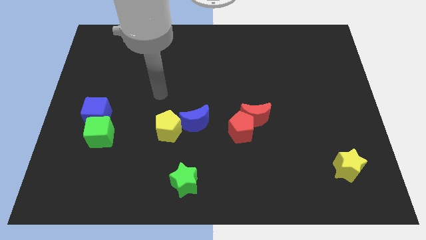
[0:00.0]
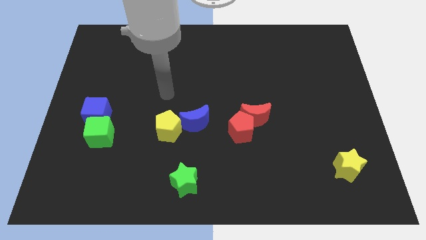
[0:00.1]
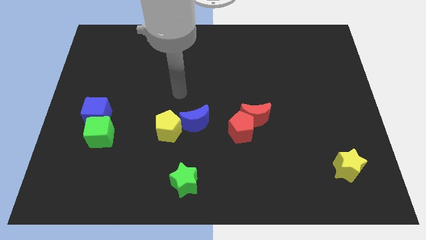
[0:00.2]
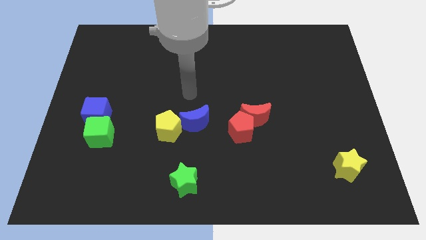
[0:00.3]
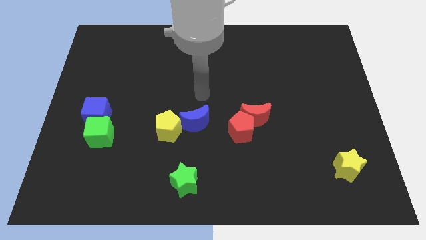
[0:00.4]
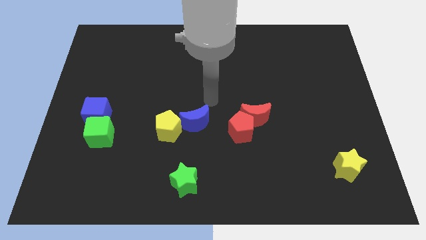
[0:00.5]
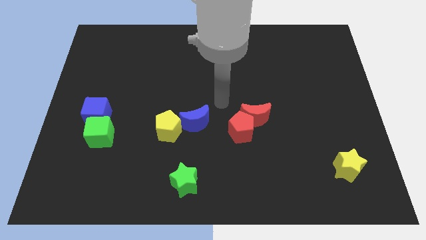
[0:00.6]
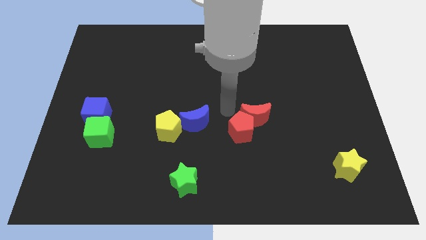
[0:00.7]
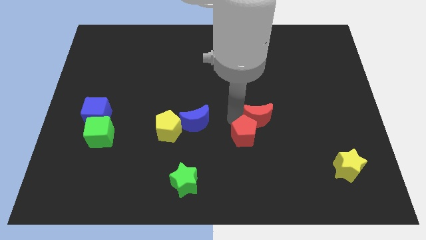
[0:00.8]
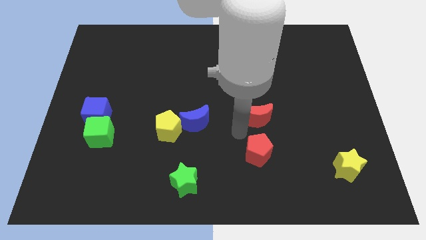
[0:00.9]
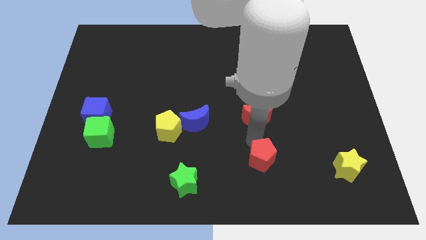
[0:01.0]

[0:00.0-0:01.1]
move the red moon away from the red pentagon

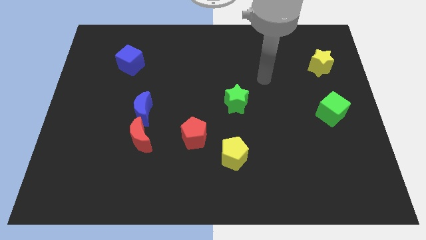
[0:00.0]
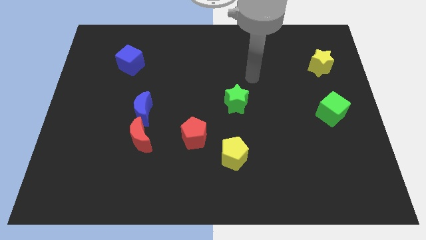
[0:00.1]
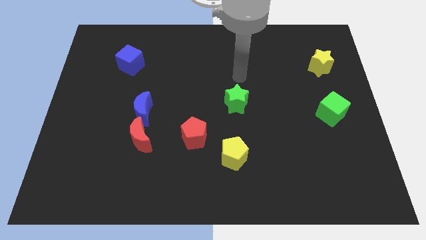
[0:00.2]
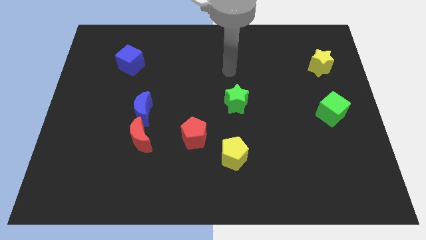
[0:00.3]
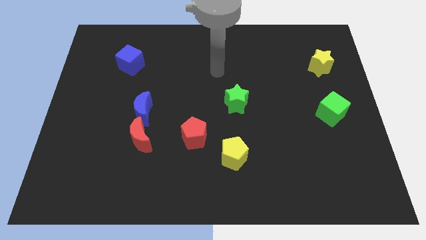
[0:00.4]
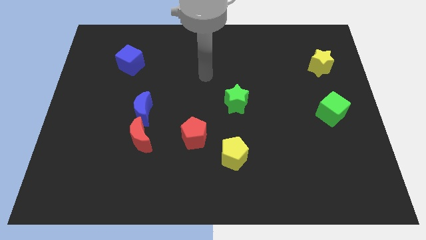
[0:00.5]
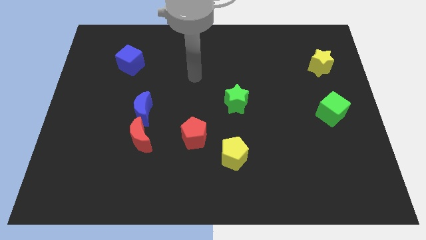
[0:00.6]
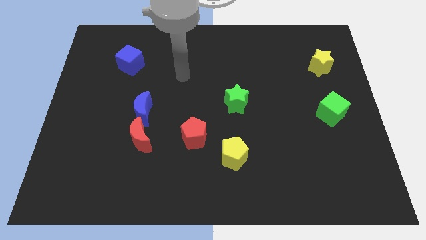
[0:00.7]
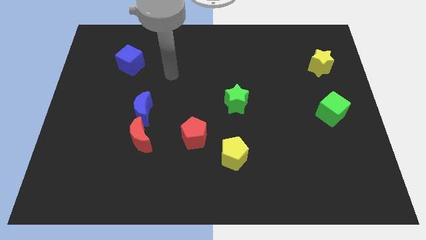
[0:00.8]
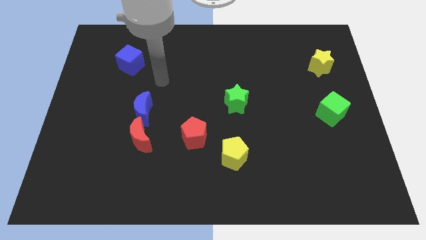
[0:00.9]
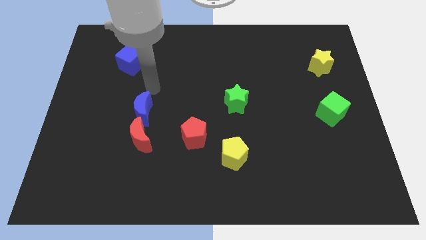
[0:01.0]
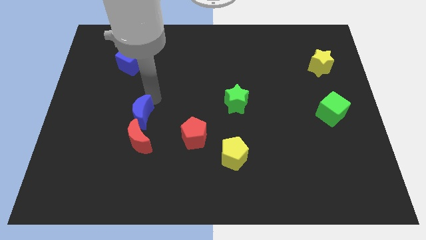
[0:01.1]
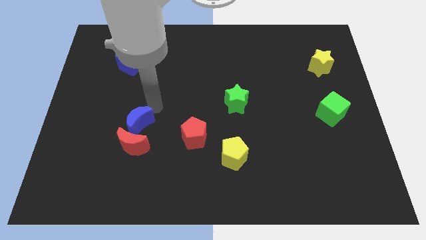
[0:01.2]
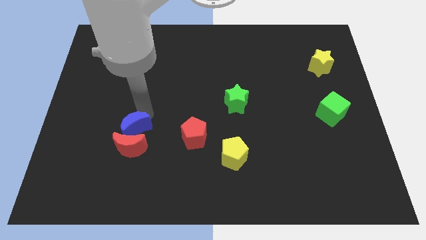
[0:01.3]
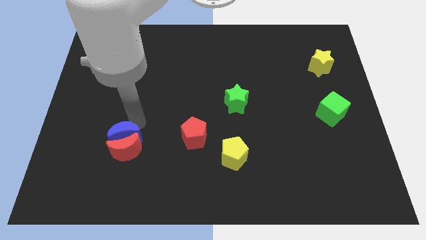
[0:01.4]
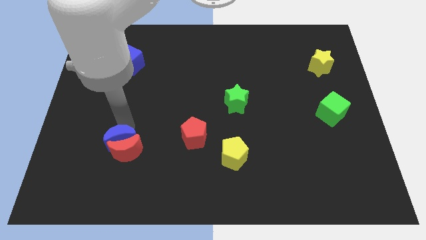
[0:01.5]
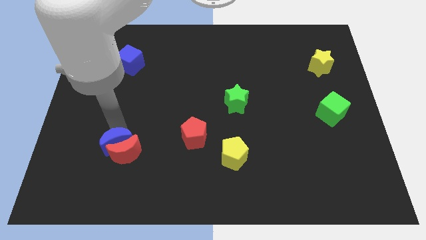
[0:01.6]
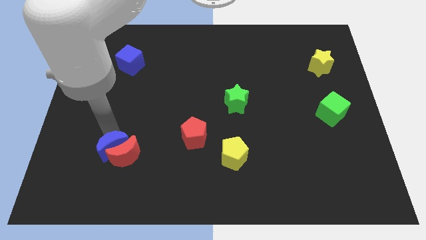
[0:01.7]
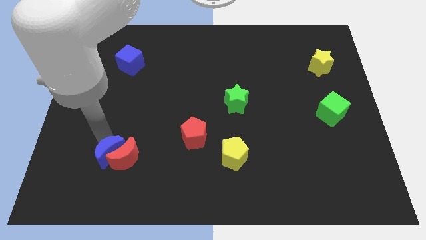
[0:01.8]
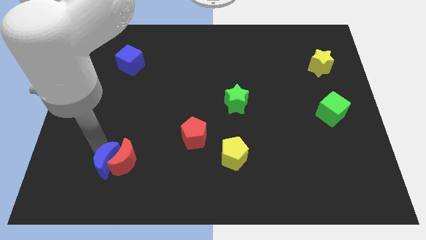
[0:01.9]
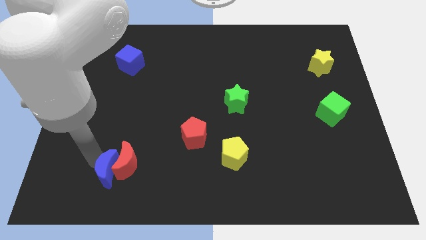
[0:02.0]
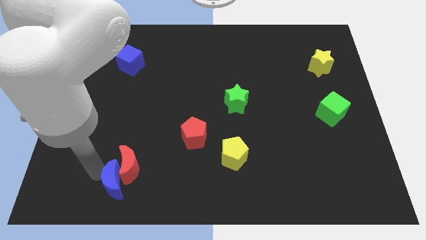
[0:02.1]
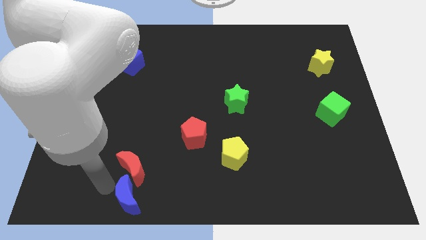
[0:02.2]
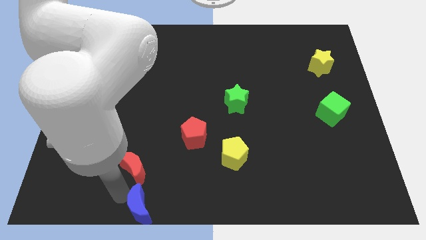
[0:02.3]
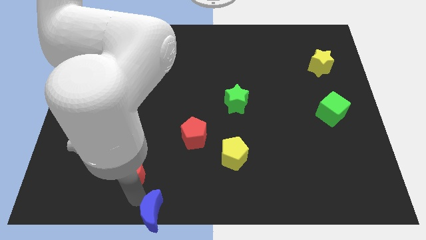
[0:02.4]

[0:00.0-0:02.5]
pull the red moon apart from the blue moon

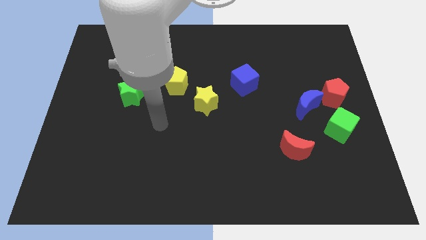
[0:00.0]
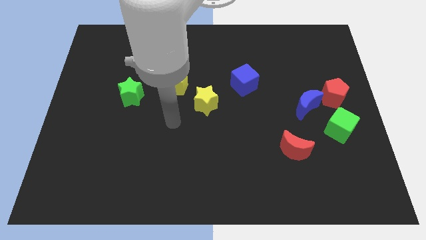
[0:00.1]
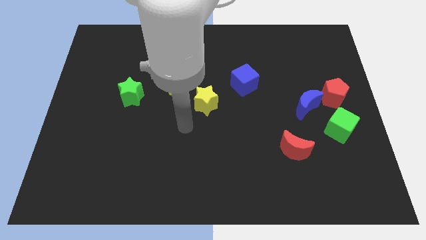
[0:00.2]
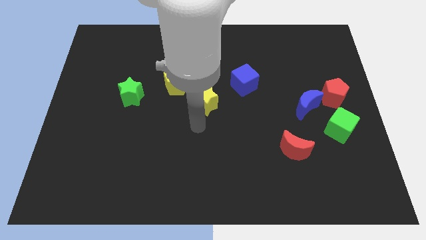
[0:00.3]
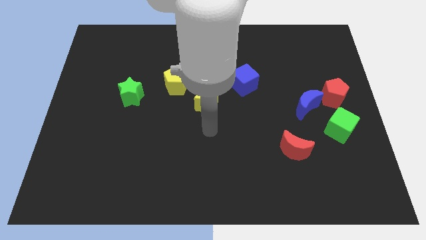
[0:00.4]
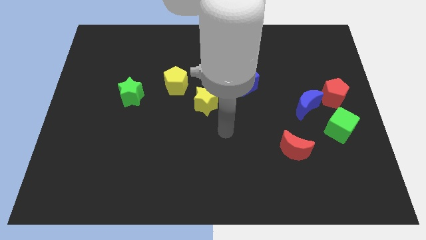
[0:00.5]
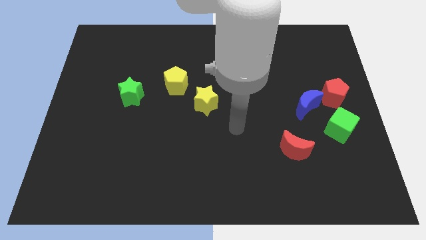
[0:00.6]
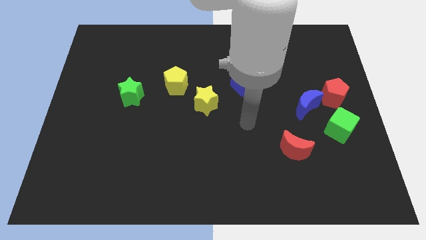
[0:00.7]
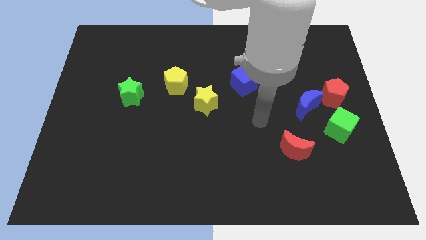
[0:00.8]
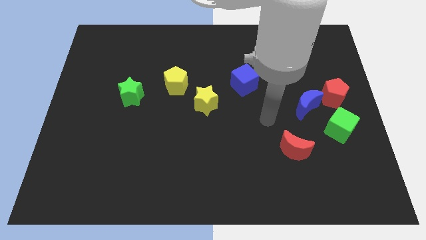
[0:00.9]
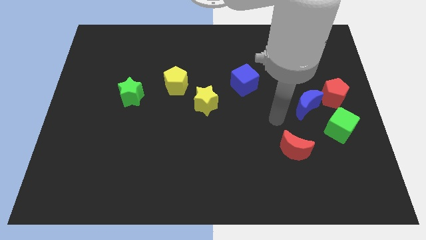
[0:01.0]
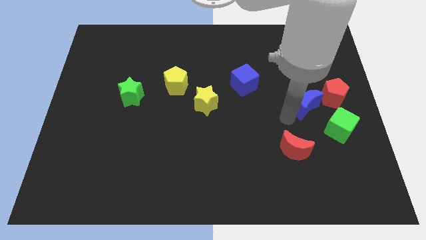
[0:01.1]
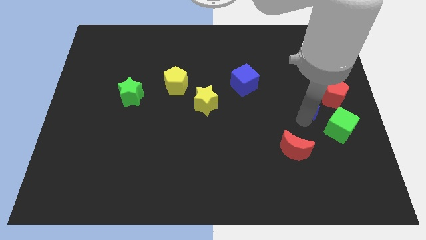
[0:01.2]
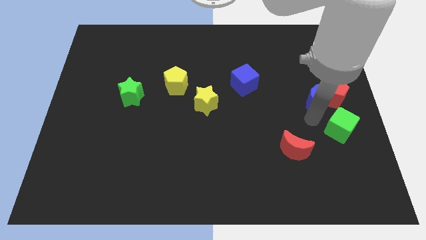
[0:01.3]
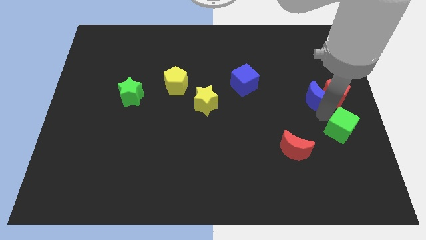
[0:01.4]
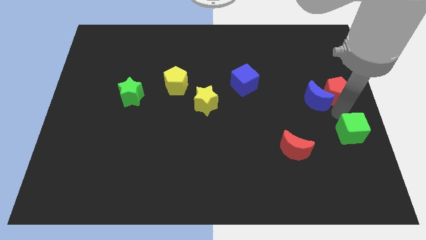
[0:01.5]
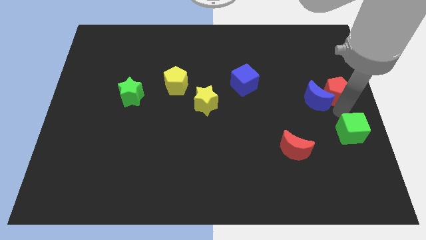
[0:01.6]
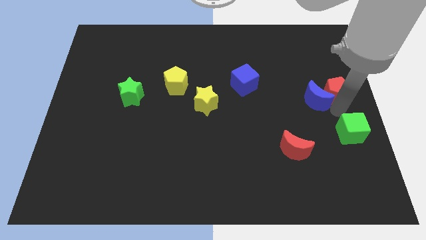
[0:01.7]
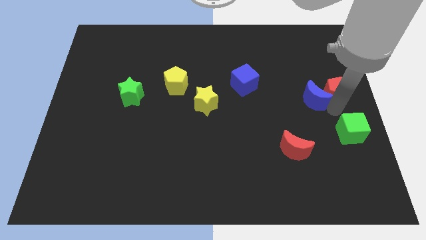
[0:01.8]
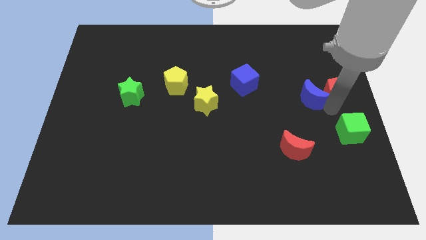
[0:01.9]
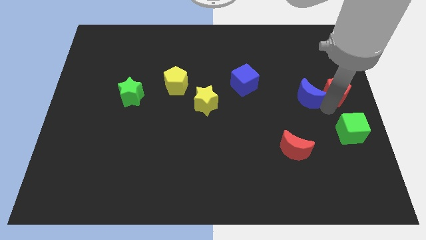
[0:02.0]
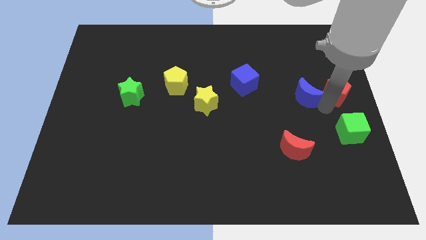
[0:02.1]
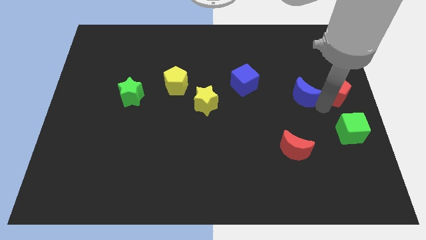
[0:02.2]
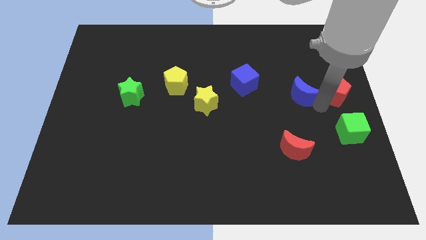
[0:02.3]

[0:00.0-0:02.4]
pull the blue moon apart from the red pentagon and green cube

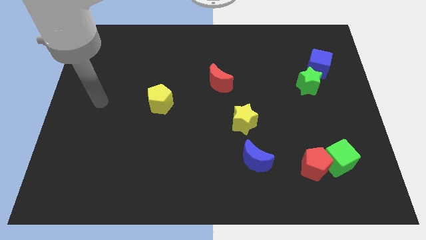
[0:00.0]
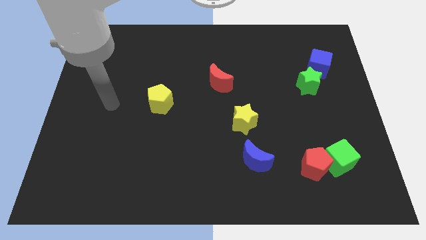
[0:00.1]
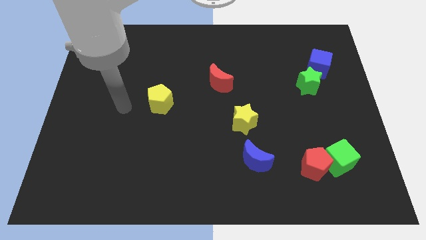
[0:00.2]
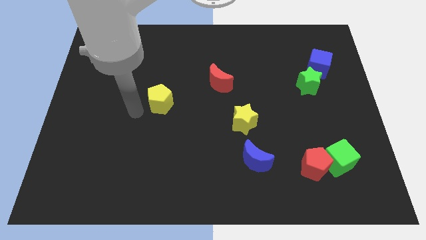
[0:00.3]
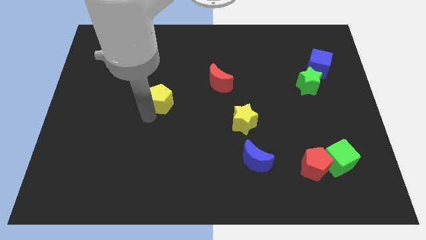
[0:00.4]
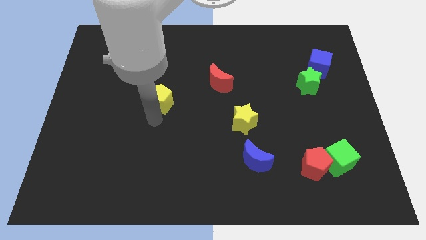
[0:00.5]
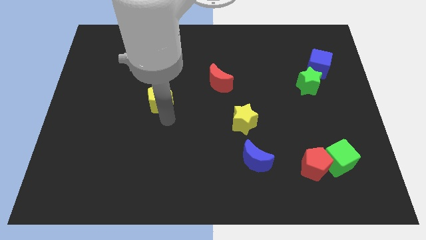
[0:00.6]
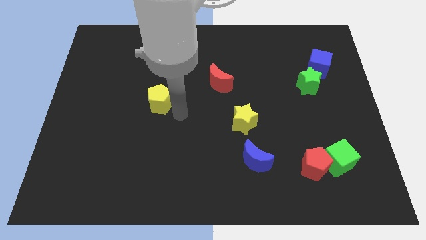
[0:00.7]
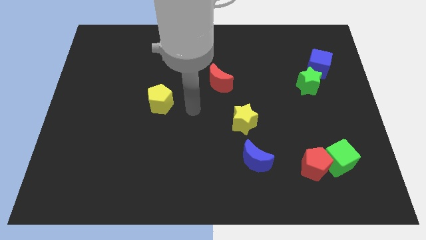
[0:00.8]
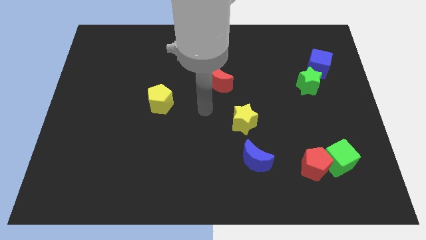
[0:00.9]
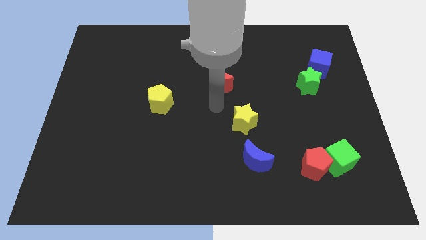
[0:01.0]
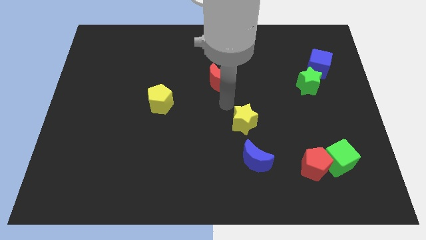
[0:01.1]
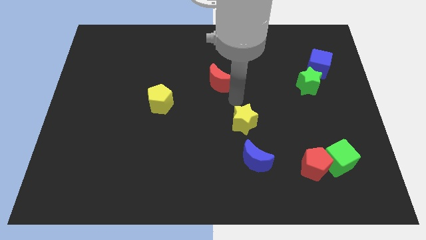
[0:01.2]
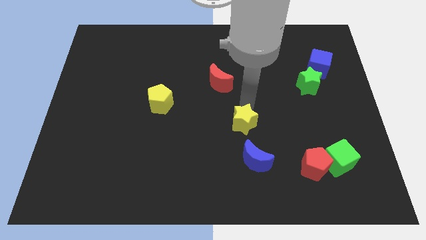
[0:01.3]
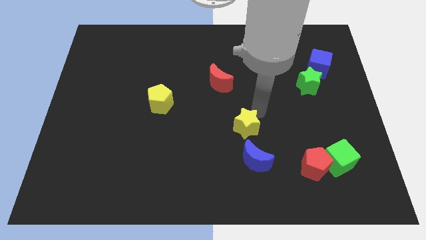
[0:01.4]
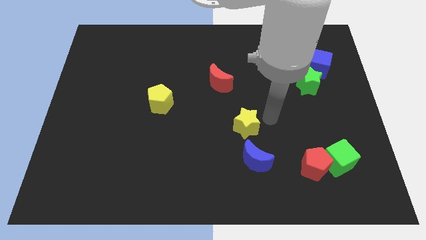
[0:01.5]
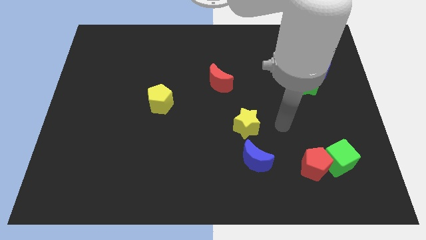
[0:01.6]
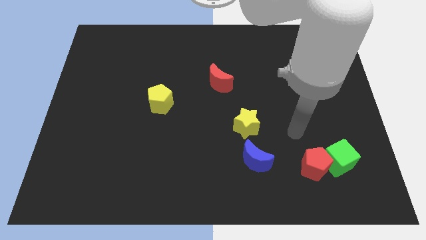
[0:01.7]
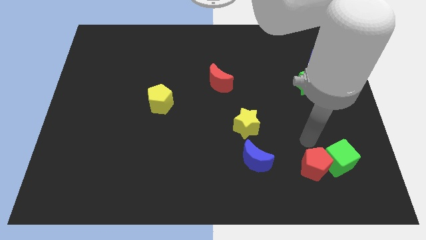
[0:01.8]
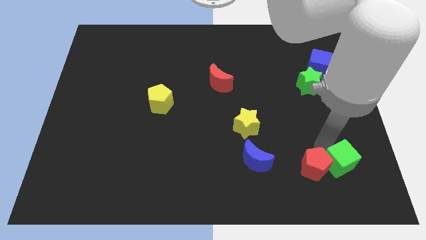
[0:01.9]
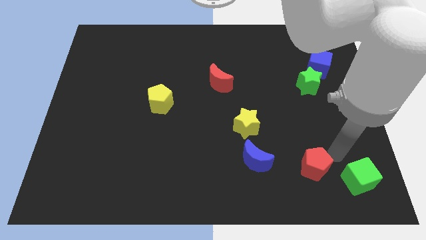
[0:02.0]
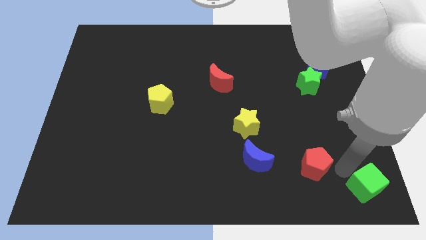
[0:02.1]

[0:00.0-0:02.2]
pull the red pentagon apart from the green cube

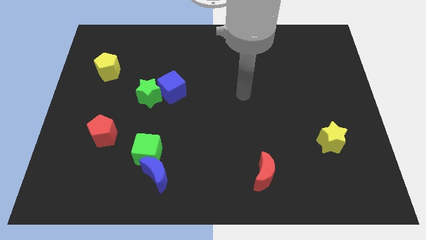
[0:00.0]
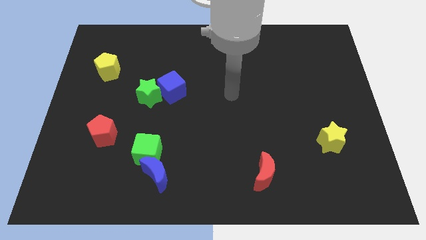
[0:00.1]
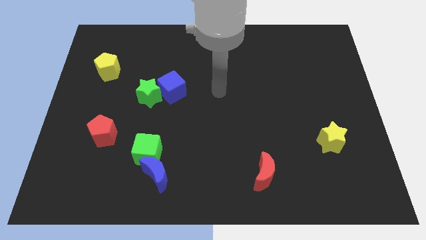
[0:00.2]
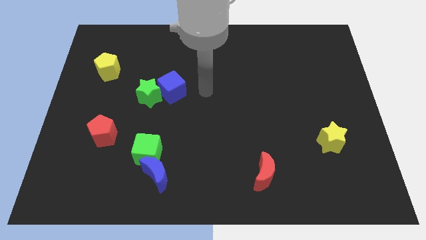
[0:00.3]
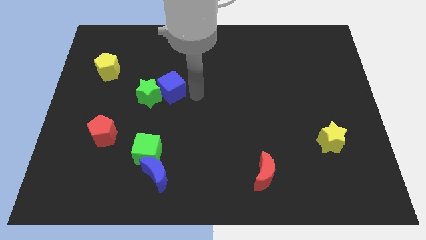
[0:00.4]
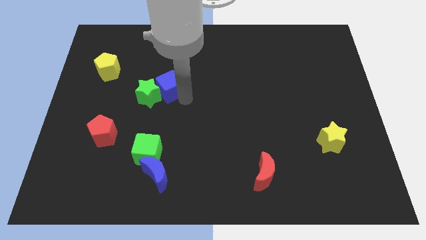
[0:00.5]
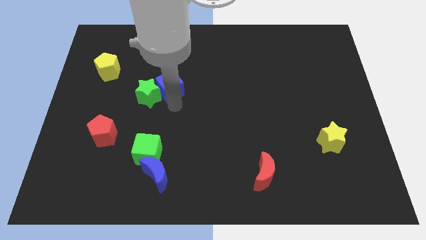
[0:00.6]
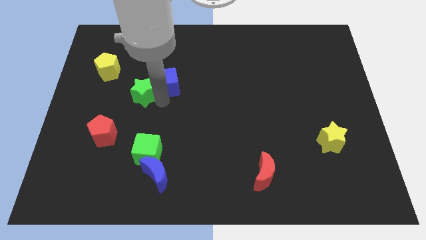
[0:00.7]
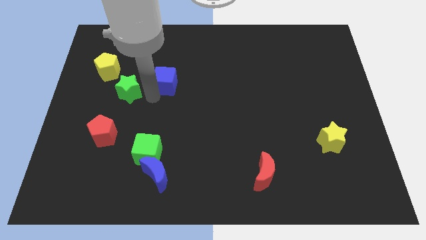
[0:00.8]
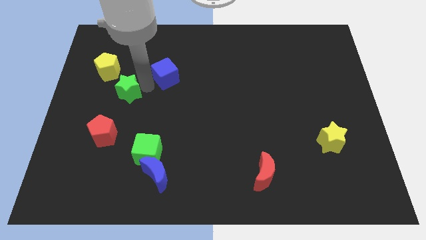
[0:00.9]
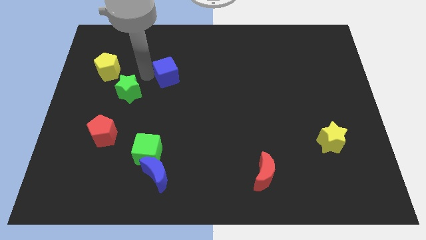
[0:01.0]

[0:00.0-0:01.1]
move the blue cube away from the green star

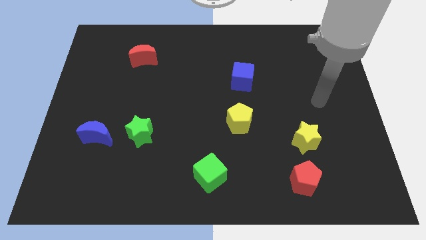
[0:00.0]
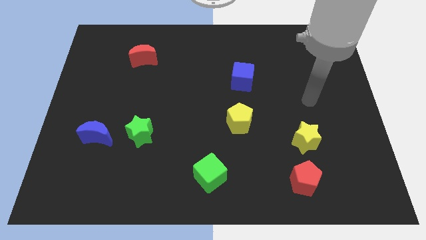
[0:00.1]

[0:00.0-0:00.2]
move the blue moon away from the green star
